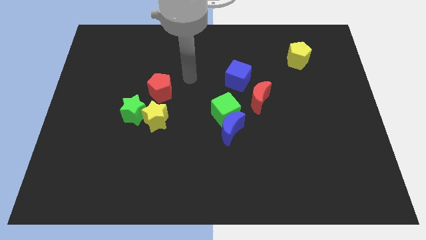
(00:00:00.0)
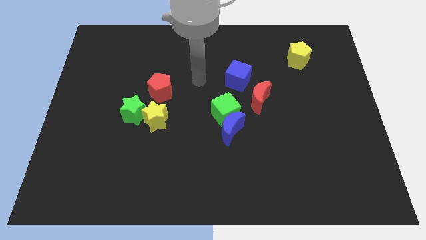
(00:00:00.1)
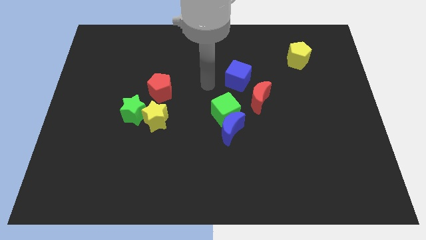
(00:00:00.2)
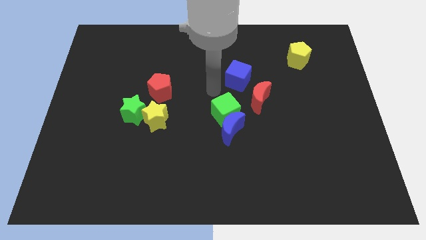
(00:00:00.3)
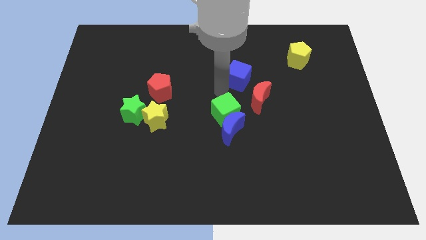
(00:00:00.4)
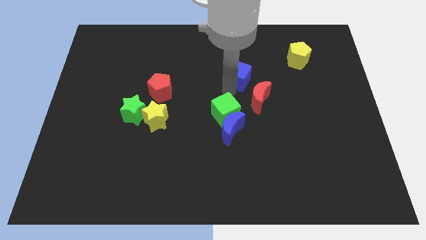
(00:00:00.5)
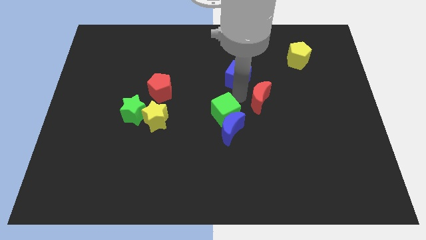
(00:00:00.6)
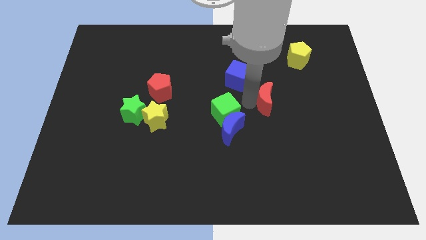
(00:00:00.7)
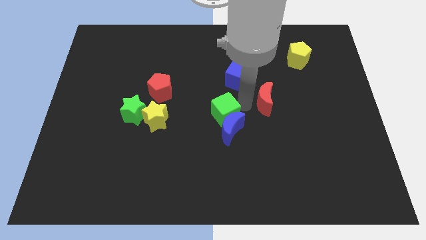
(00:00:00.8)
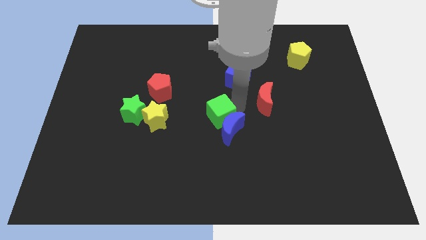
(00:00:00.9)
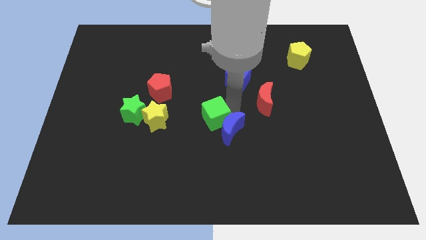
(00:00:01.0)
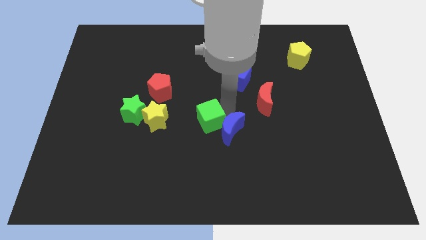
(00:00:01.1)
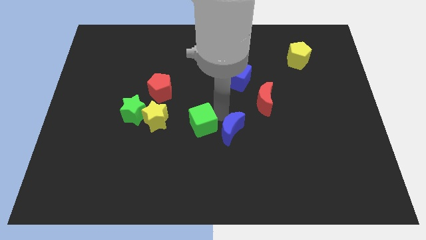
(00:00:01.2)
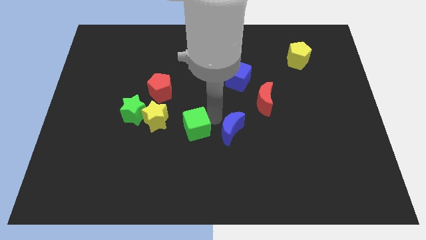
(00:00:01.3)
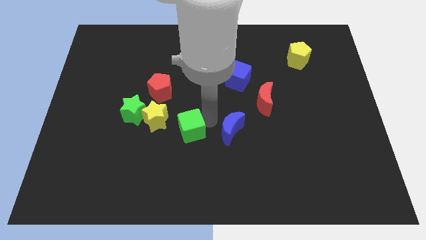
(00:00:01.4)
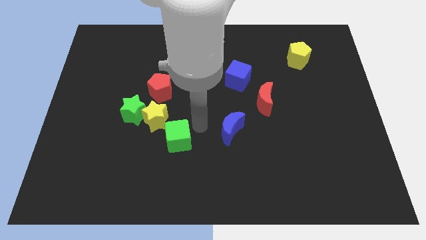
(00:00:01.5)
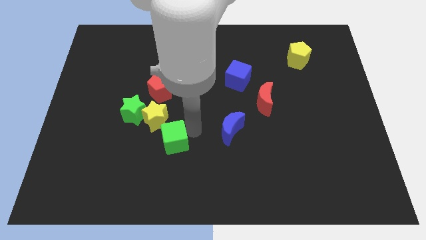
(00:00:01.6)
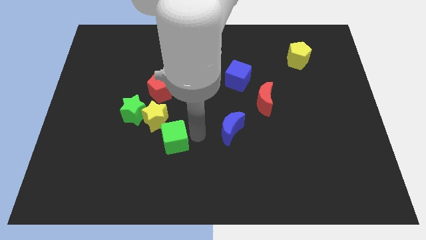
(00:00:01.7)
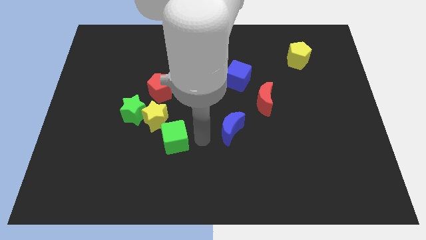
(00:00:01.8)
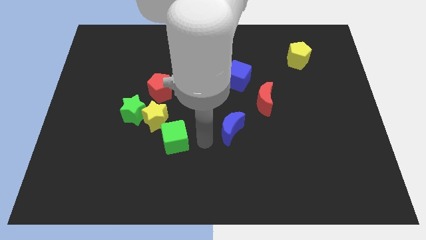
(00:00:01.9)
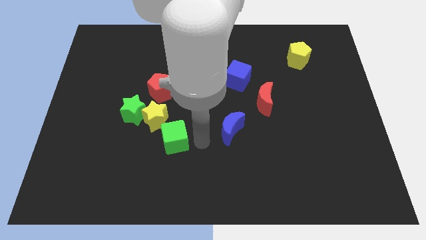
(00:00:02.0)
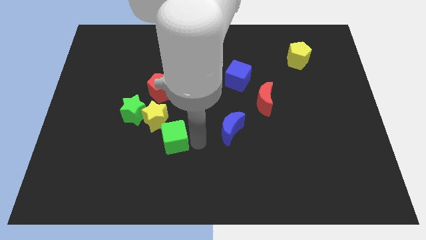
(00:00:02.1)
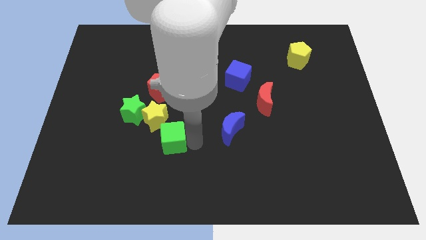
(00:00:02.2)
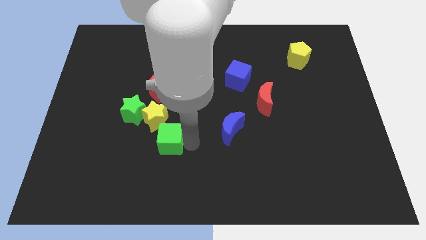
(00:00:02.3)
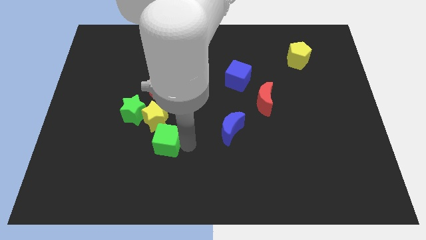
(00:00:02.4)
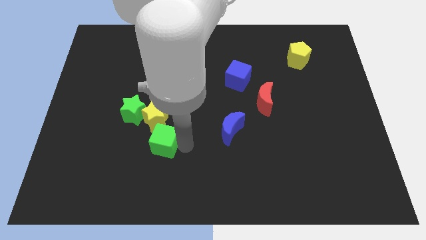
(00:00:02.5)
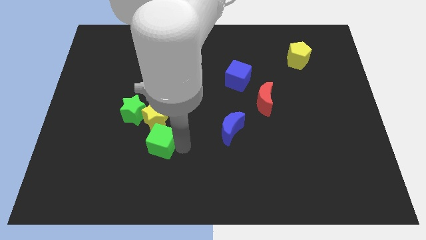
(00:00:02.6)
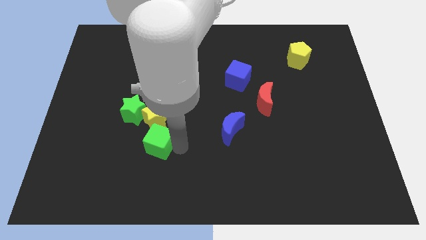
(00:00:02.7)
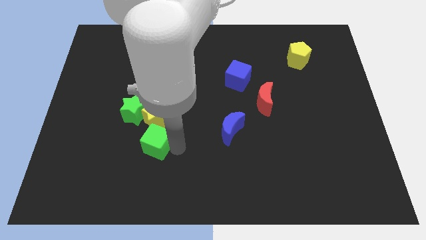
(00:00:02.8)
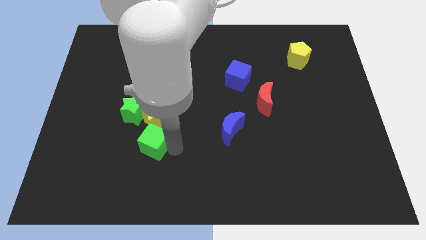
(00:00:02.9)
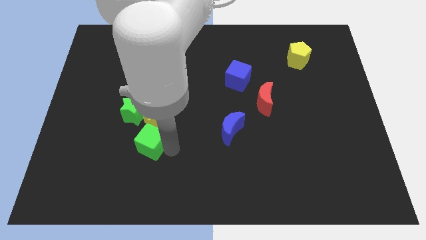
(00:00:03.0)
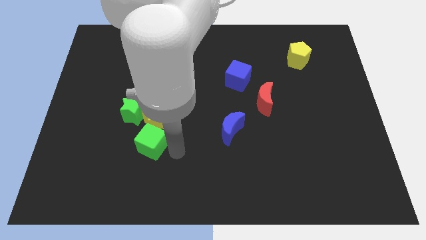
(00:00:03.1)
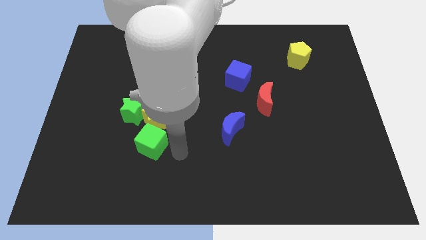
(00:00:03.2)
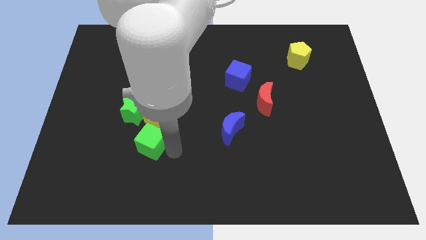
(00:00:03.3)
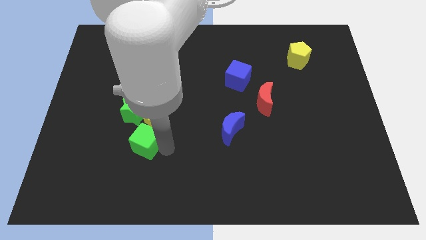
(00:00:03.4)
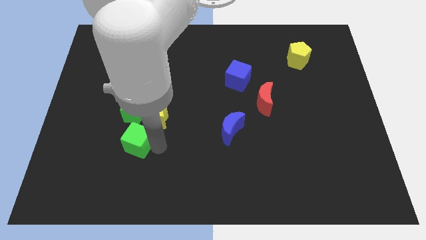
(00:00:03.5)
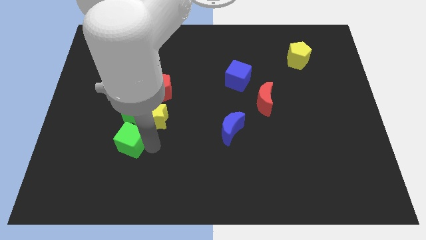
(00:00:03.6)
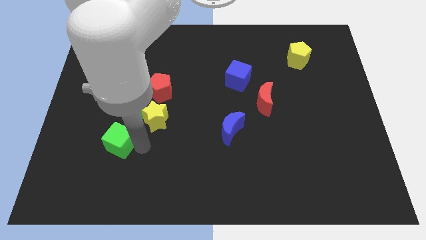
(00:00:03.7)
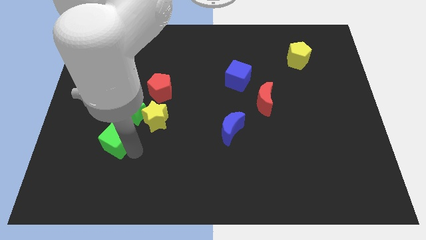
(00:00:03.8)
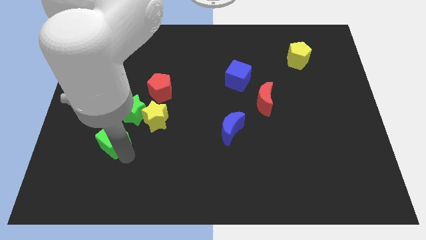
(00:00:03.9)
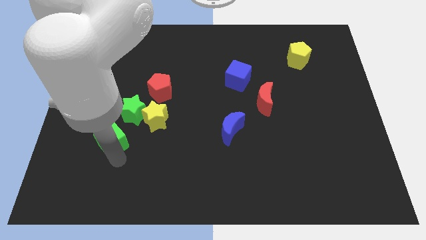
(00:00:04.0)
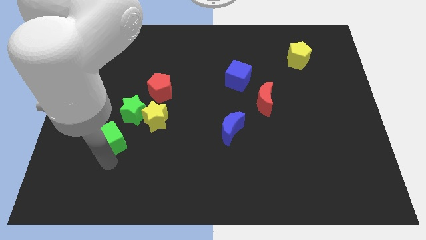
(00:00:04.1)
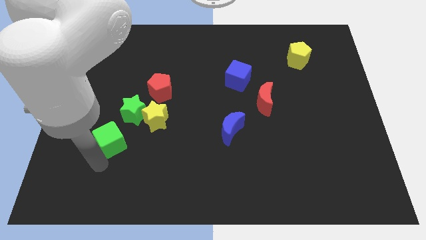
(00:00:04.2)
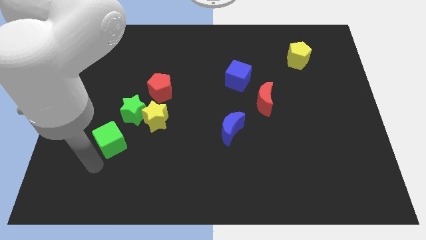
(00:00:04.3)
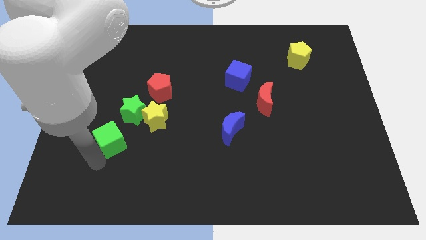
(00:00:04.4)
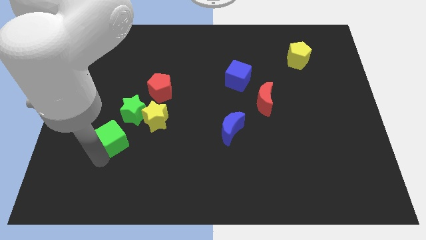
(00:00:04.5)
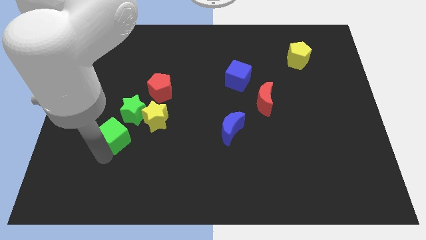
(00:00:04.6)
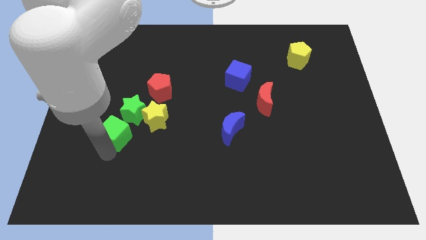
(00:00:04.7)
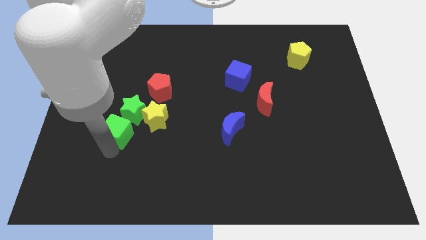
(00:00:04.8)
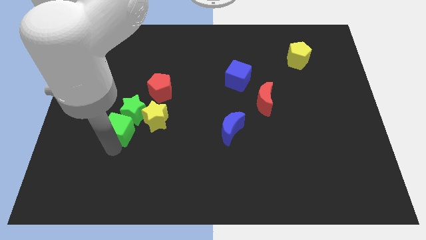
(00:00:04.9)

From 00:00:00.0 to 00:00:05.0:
move the green cube towards the green star

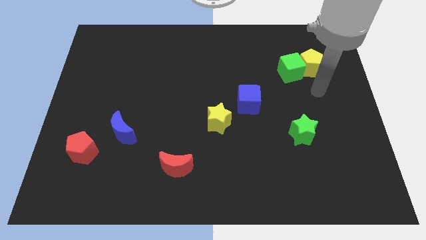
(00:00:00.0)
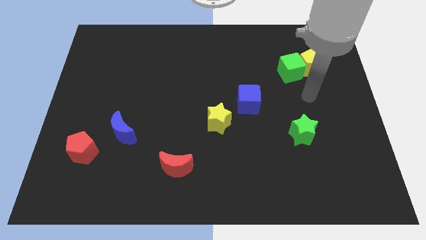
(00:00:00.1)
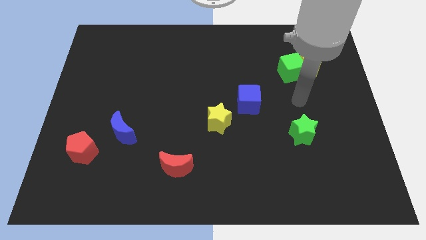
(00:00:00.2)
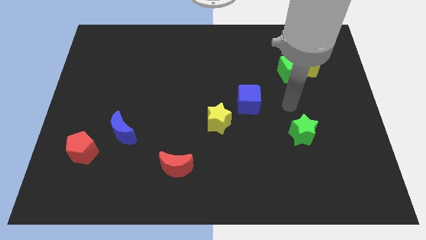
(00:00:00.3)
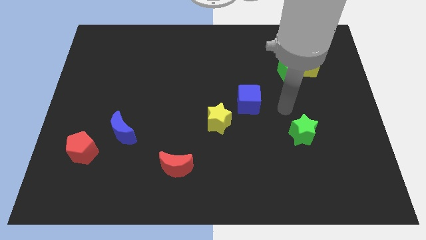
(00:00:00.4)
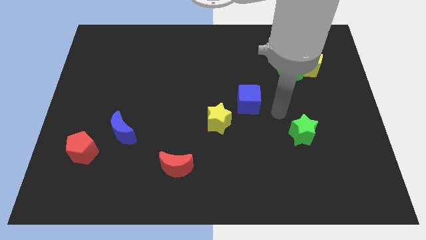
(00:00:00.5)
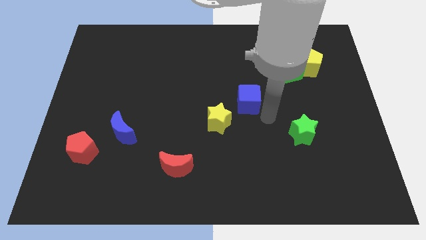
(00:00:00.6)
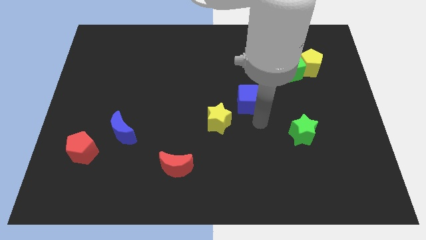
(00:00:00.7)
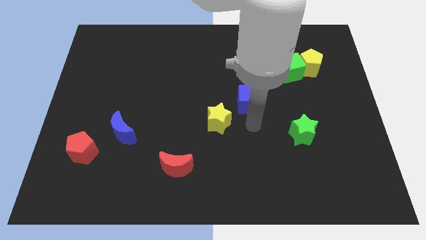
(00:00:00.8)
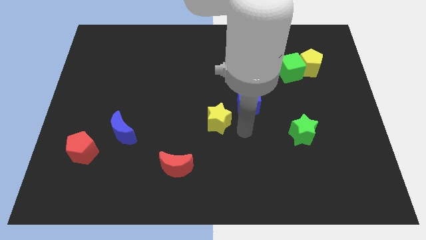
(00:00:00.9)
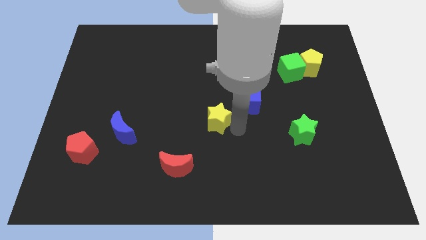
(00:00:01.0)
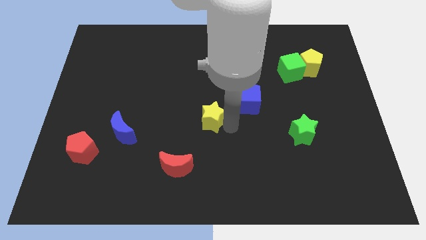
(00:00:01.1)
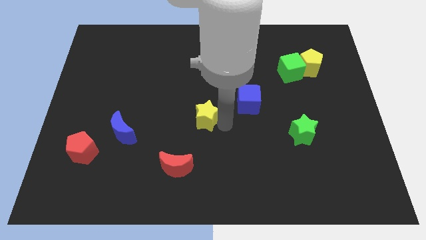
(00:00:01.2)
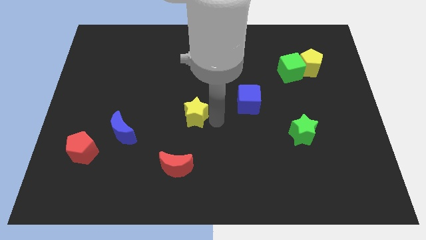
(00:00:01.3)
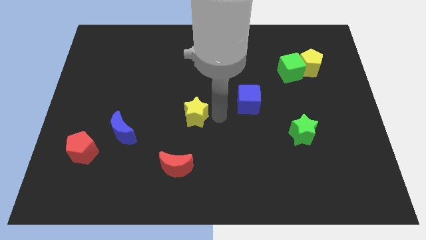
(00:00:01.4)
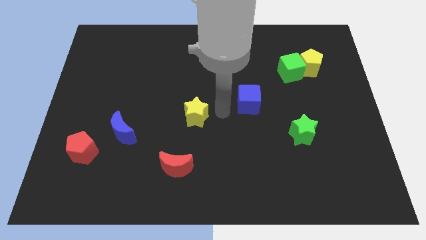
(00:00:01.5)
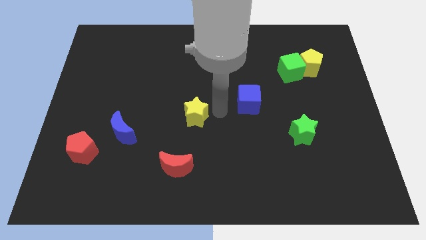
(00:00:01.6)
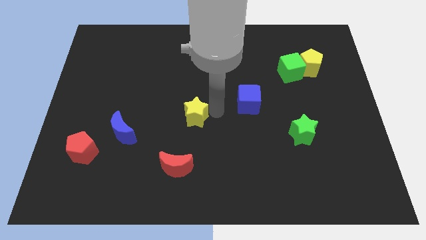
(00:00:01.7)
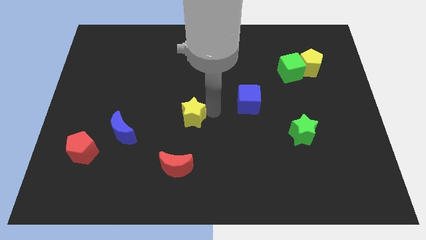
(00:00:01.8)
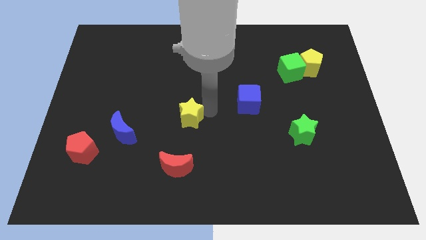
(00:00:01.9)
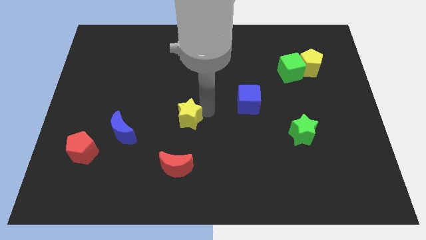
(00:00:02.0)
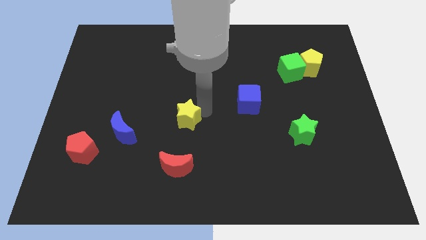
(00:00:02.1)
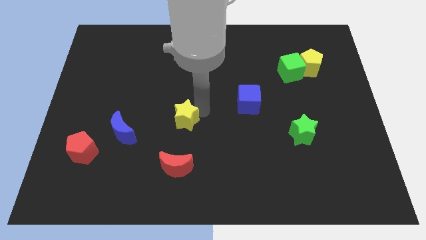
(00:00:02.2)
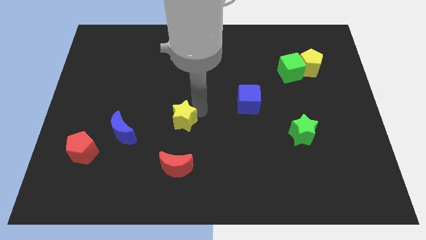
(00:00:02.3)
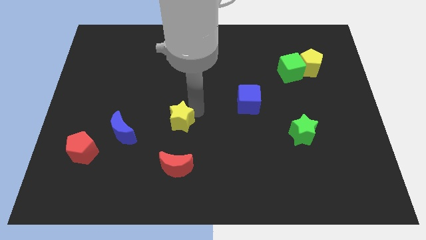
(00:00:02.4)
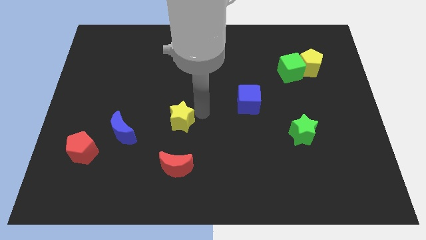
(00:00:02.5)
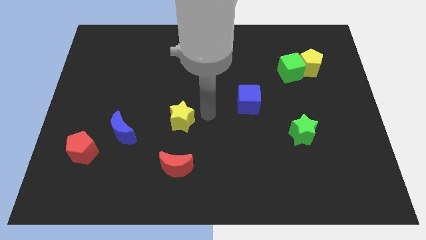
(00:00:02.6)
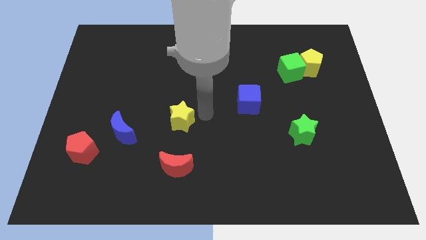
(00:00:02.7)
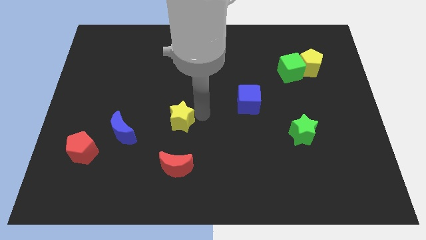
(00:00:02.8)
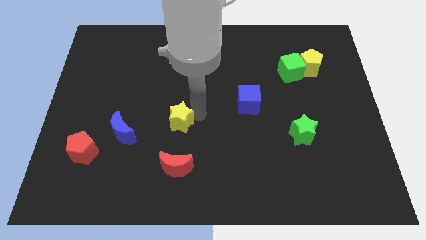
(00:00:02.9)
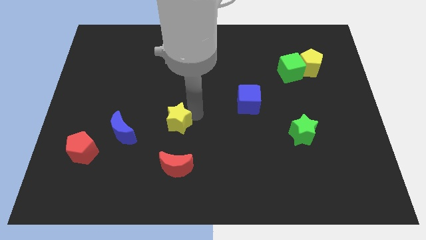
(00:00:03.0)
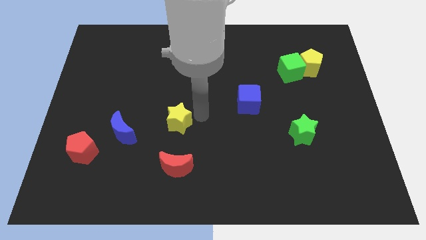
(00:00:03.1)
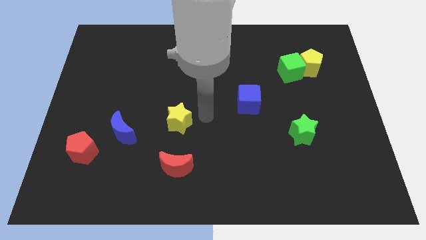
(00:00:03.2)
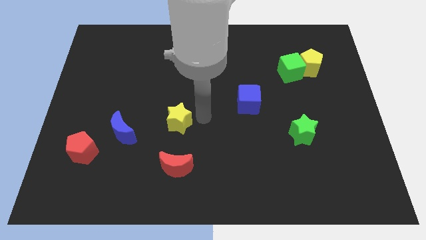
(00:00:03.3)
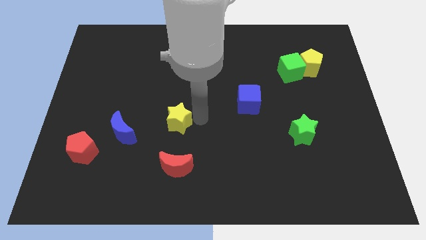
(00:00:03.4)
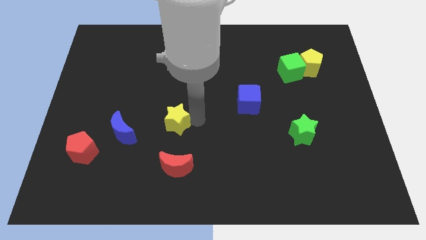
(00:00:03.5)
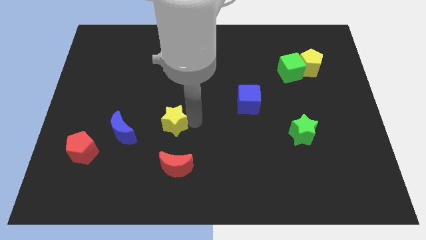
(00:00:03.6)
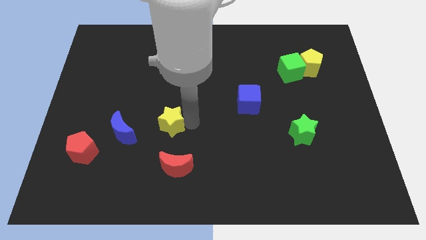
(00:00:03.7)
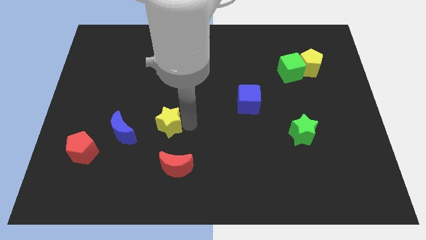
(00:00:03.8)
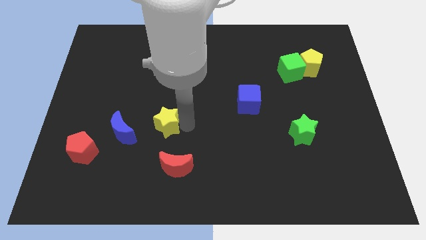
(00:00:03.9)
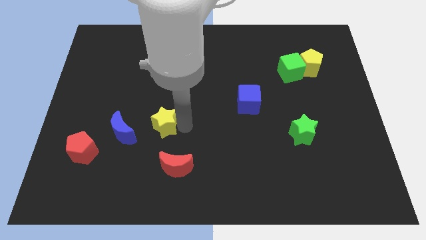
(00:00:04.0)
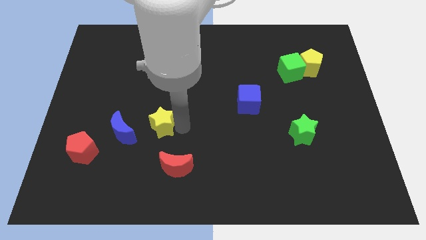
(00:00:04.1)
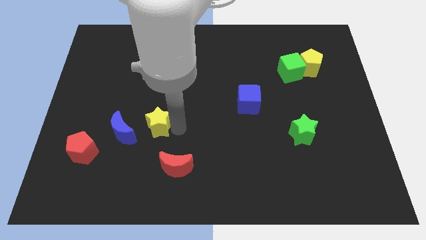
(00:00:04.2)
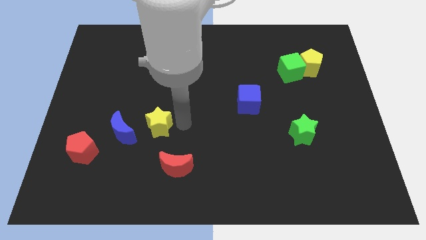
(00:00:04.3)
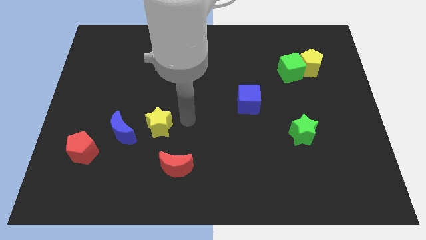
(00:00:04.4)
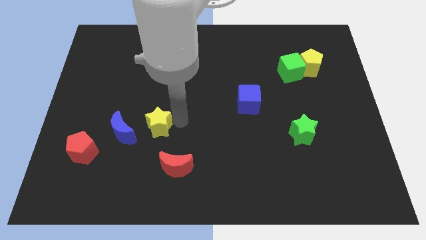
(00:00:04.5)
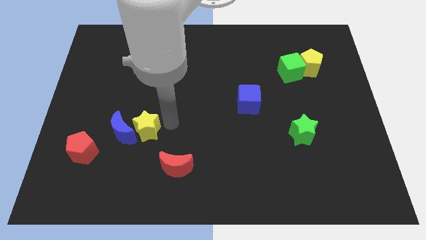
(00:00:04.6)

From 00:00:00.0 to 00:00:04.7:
put the yellow star next to the blue moon
